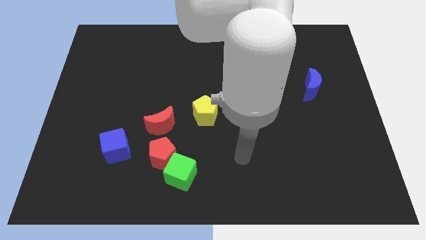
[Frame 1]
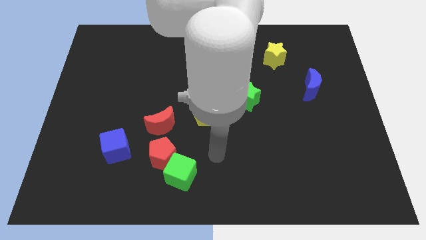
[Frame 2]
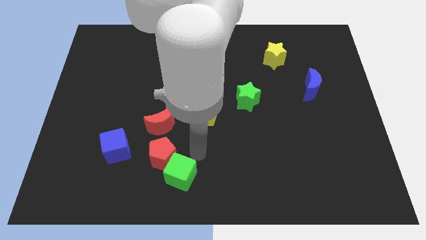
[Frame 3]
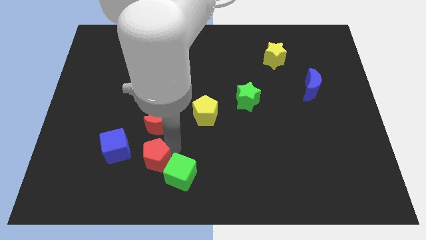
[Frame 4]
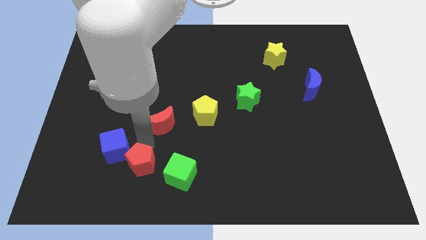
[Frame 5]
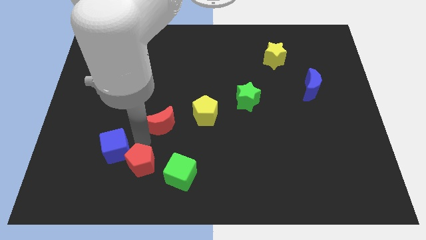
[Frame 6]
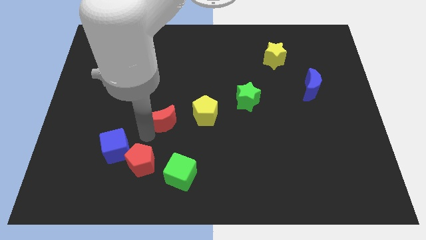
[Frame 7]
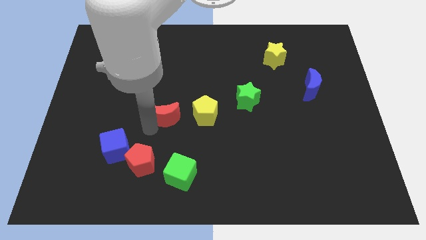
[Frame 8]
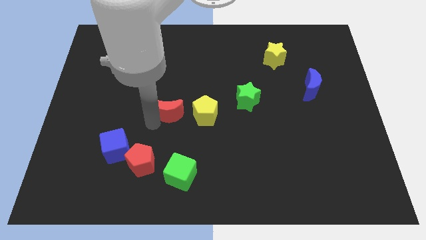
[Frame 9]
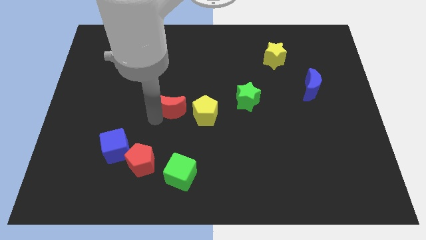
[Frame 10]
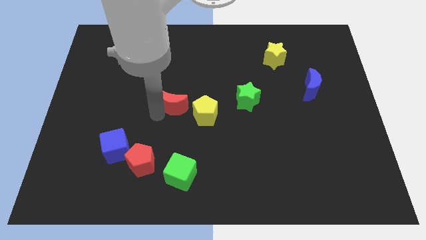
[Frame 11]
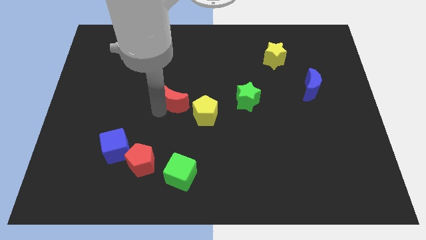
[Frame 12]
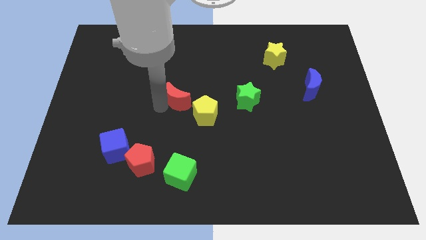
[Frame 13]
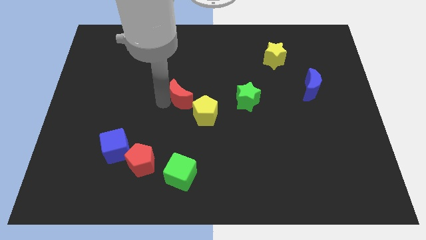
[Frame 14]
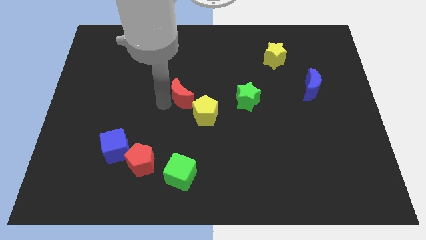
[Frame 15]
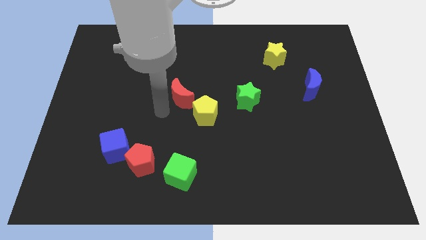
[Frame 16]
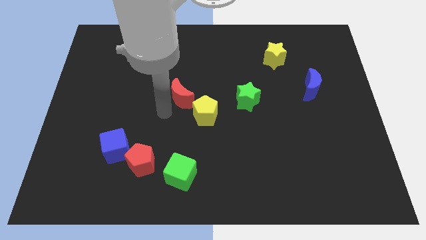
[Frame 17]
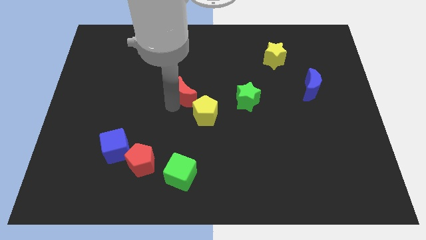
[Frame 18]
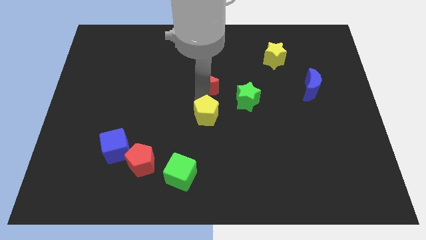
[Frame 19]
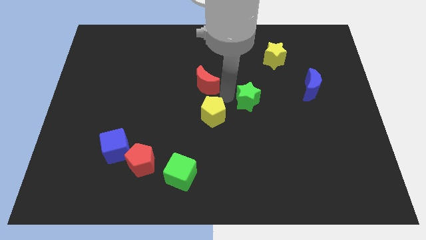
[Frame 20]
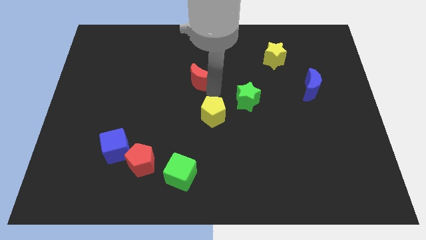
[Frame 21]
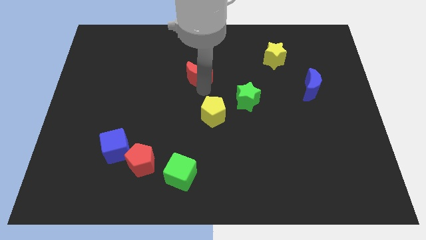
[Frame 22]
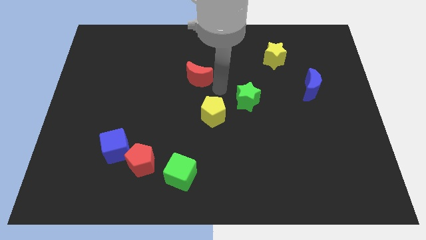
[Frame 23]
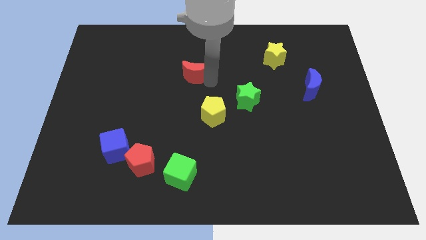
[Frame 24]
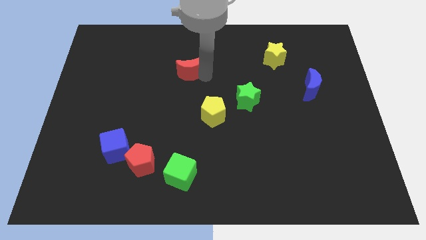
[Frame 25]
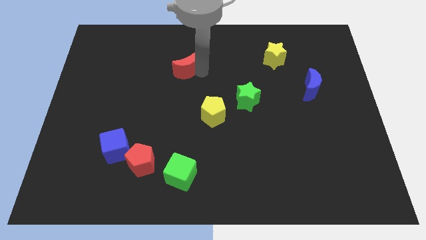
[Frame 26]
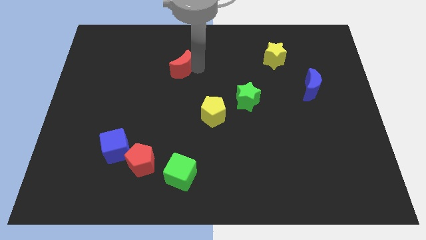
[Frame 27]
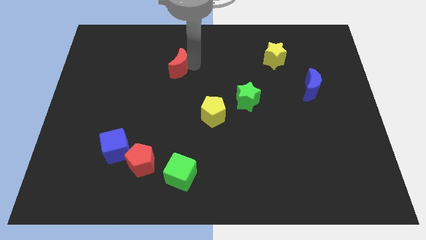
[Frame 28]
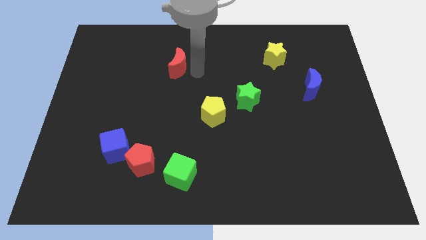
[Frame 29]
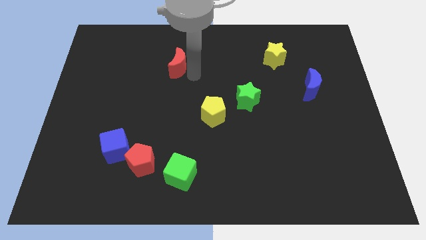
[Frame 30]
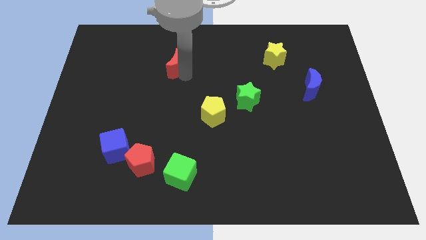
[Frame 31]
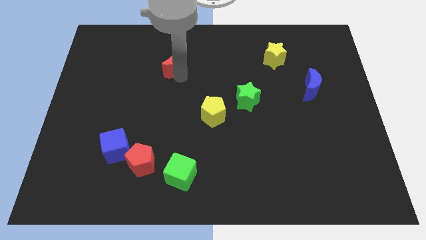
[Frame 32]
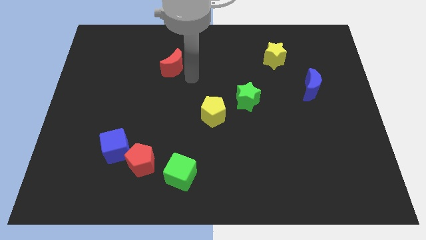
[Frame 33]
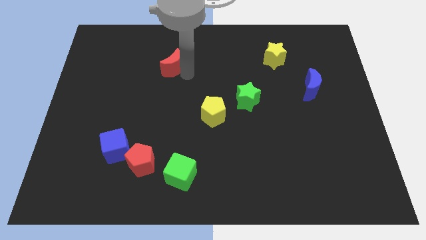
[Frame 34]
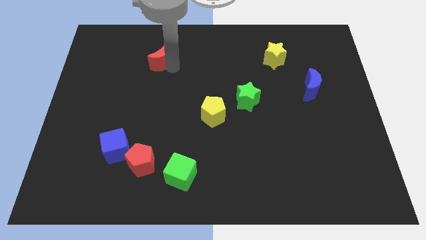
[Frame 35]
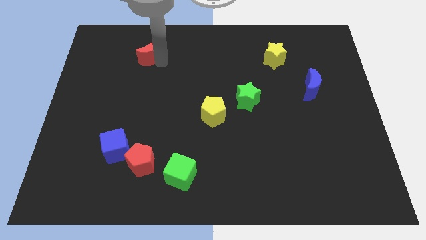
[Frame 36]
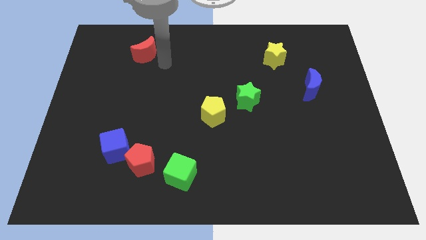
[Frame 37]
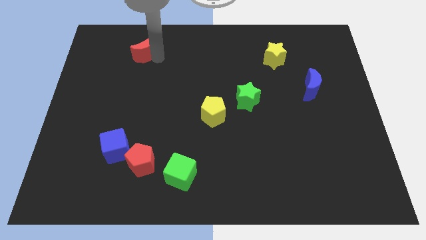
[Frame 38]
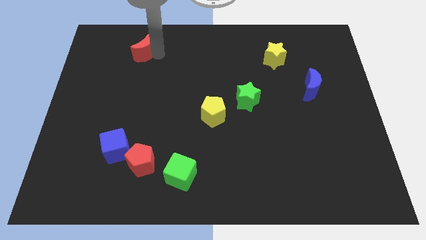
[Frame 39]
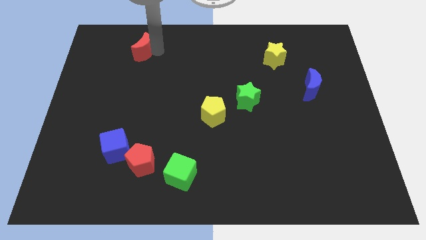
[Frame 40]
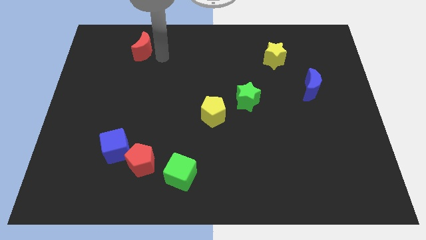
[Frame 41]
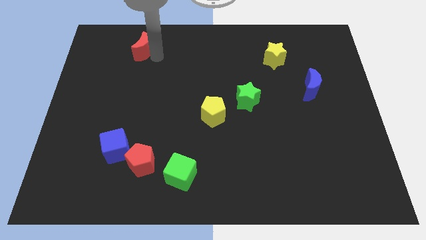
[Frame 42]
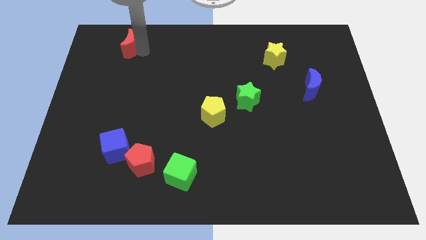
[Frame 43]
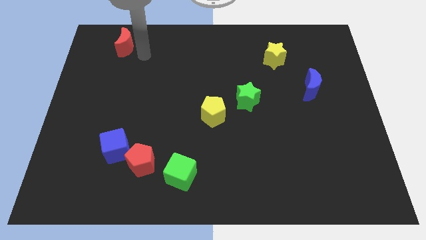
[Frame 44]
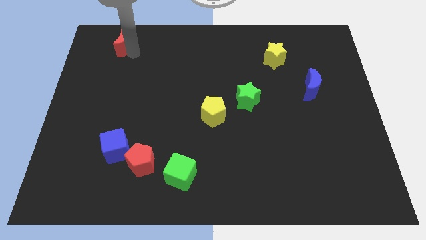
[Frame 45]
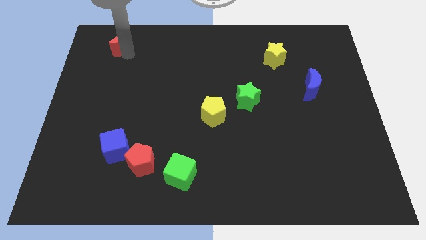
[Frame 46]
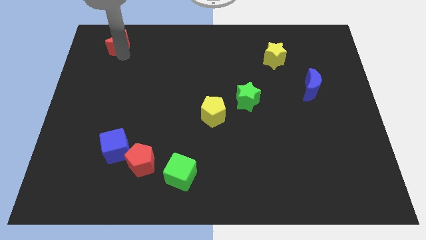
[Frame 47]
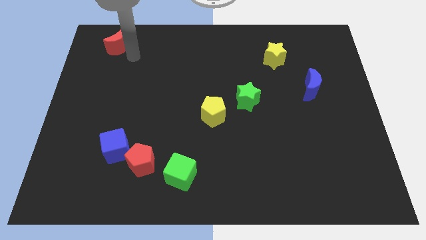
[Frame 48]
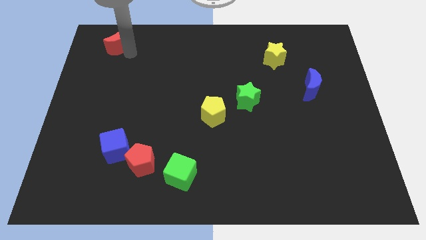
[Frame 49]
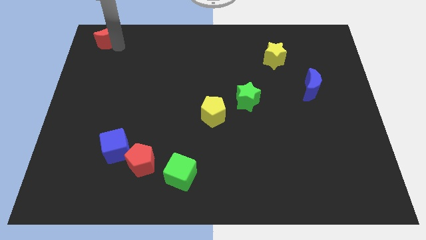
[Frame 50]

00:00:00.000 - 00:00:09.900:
slide the red moon to the top left corner

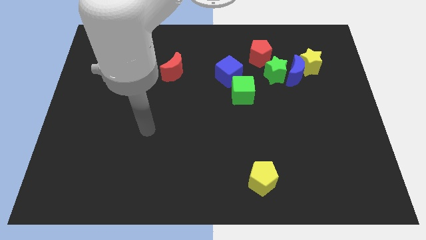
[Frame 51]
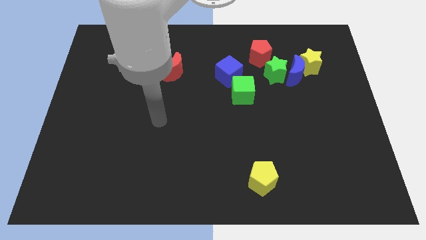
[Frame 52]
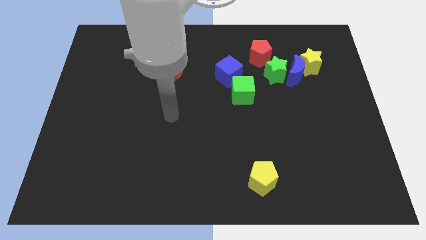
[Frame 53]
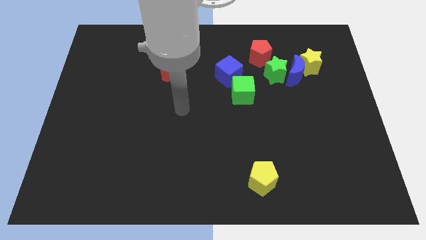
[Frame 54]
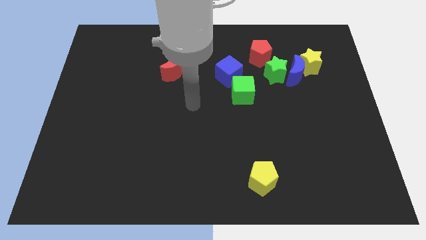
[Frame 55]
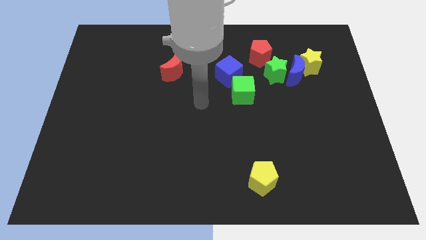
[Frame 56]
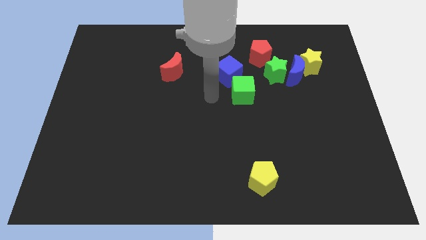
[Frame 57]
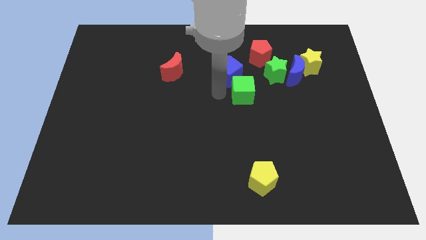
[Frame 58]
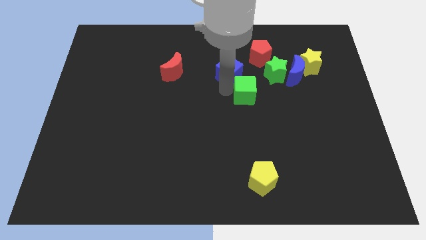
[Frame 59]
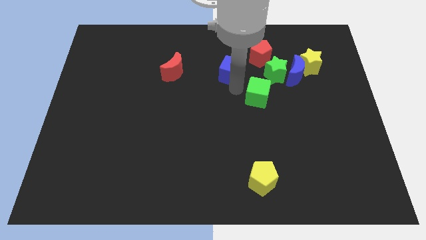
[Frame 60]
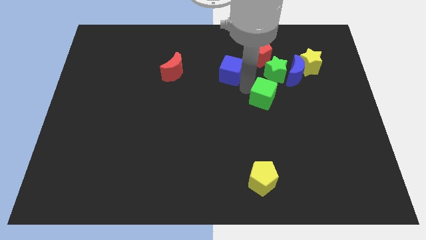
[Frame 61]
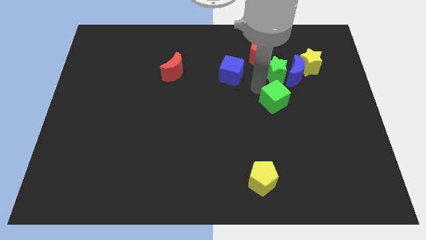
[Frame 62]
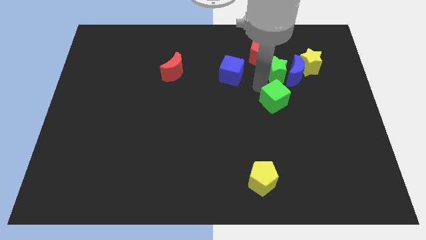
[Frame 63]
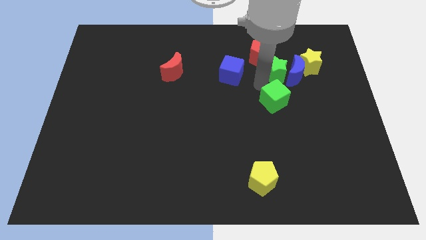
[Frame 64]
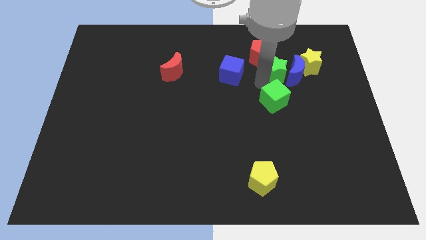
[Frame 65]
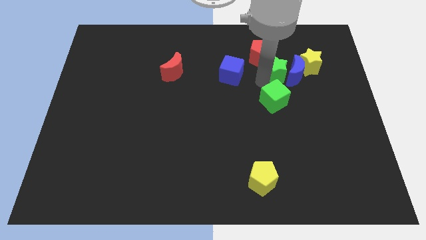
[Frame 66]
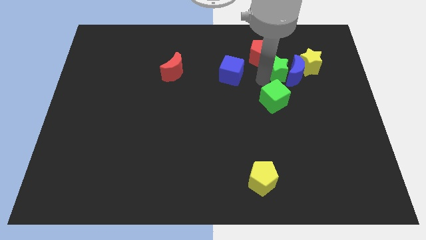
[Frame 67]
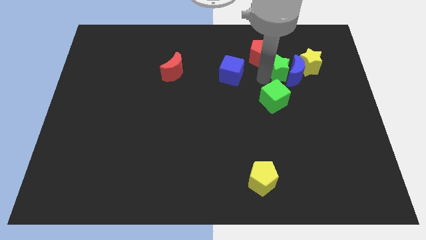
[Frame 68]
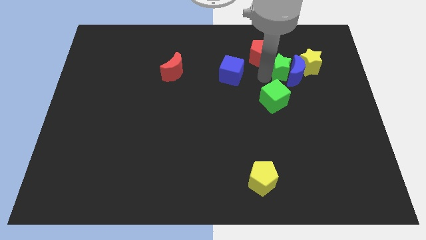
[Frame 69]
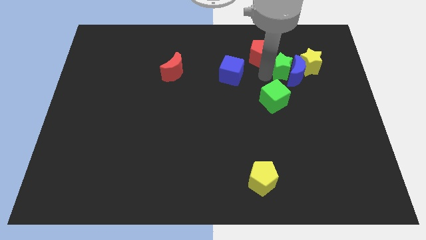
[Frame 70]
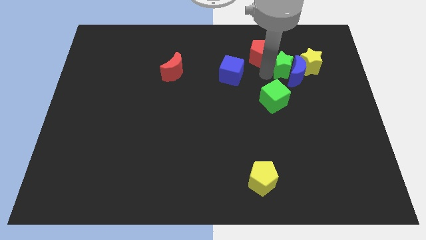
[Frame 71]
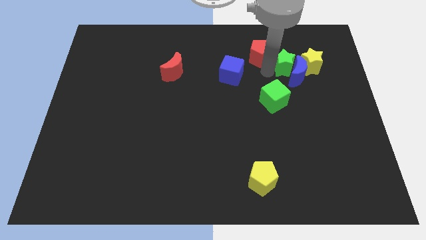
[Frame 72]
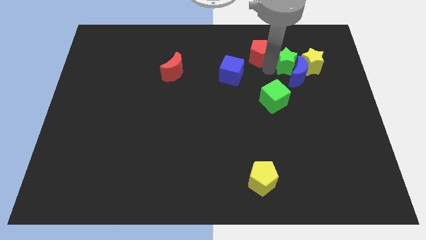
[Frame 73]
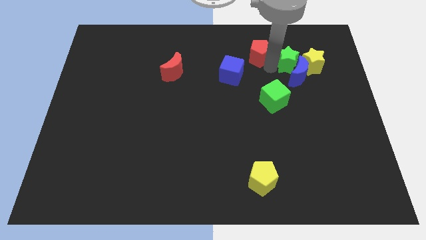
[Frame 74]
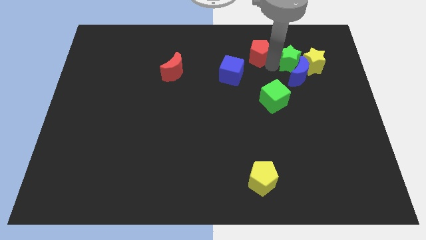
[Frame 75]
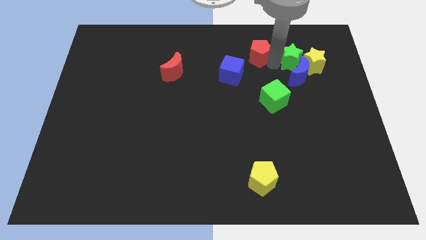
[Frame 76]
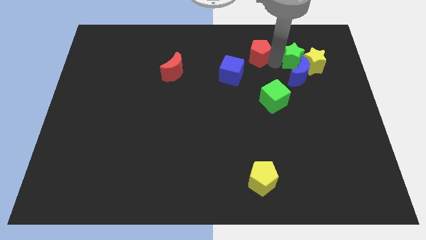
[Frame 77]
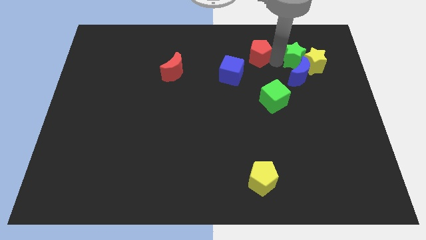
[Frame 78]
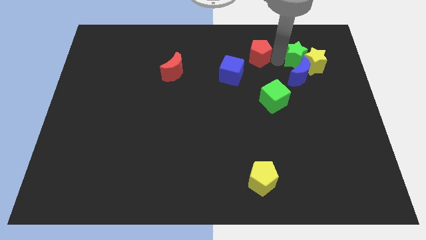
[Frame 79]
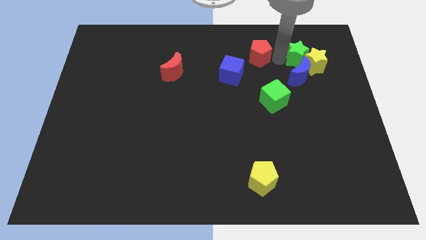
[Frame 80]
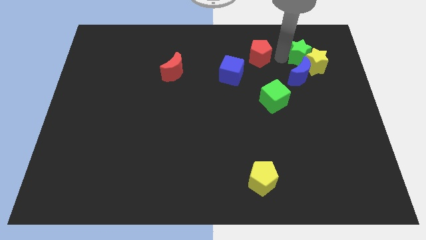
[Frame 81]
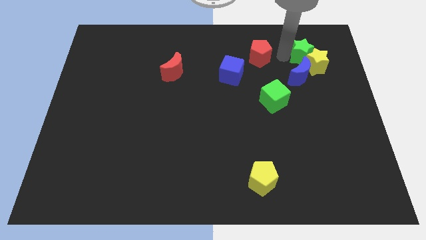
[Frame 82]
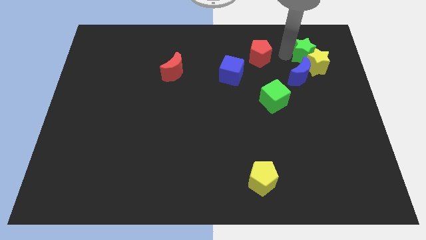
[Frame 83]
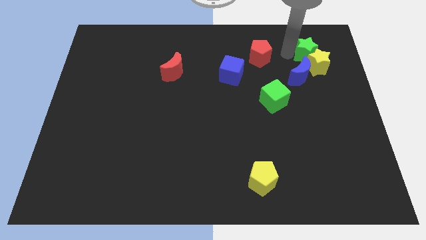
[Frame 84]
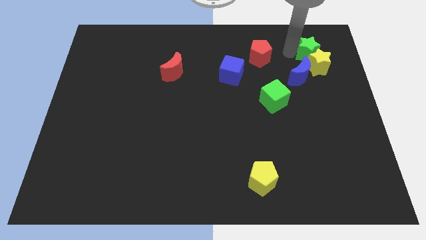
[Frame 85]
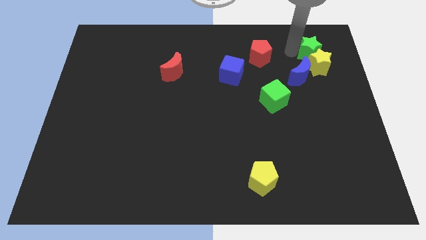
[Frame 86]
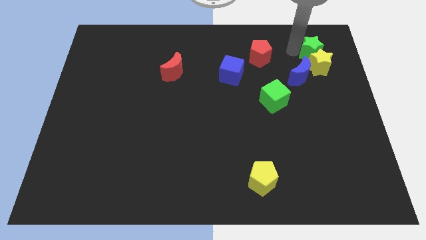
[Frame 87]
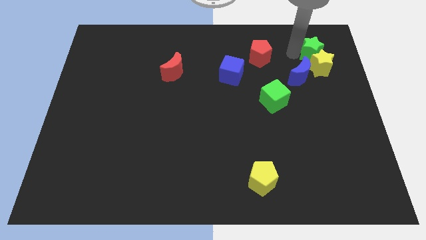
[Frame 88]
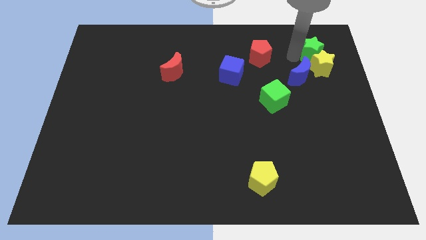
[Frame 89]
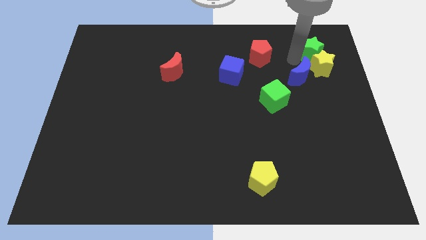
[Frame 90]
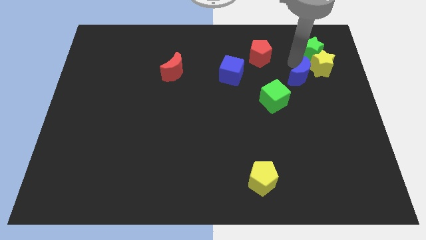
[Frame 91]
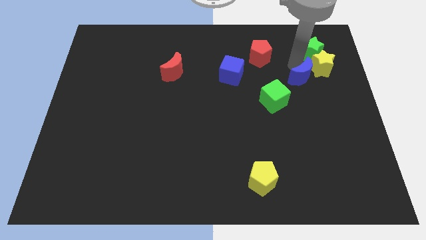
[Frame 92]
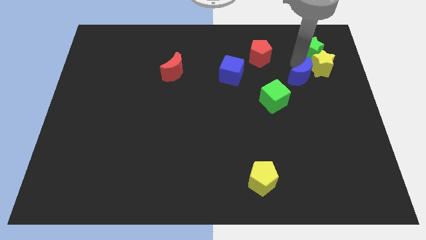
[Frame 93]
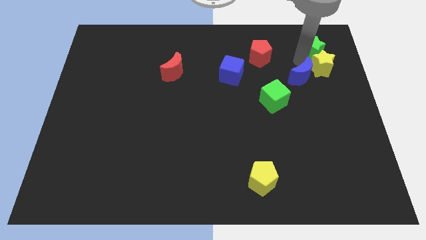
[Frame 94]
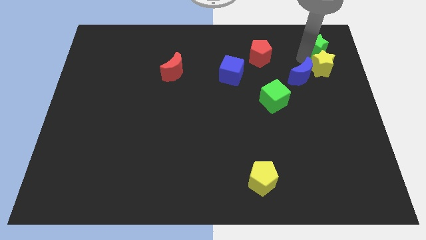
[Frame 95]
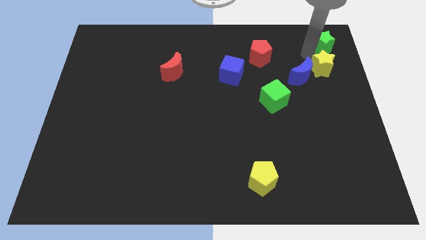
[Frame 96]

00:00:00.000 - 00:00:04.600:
push the green star to the top right corner
